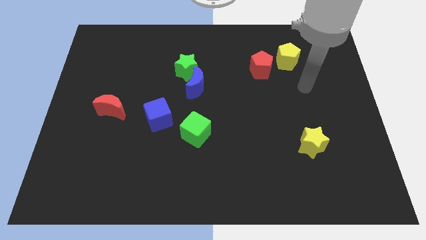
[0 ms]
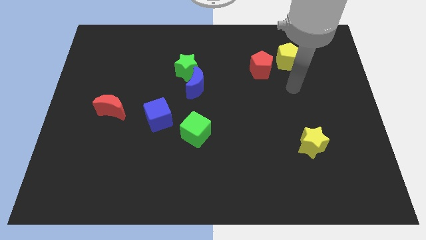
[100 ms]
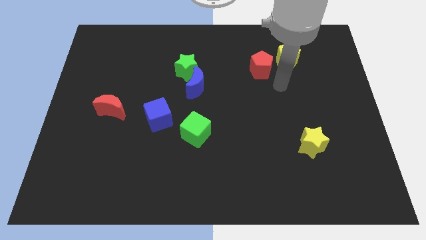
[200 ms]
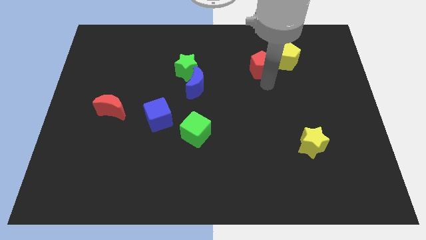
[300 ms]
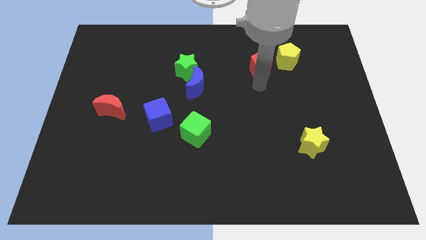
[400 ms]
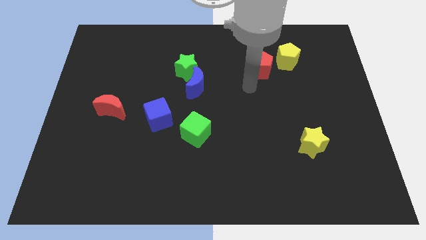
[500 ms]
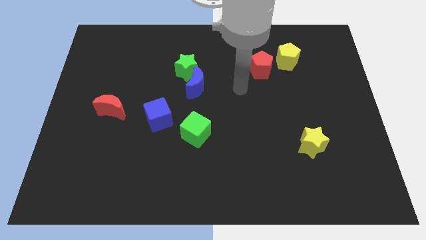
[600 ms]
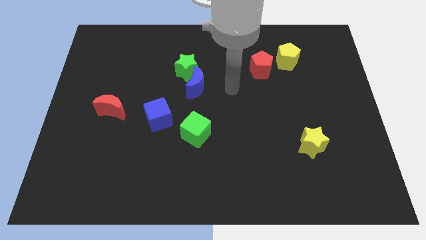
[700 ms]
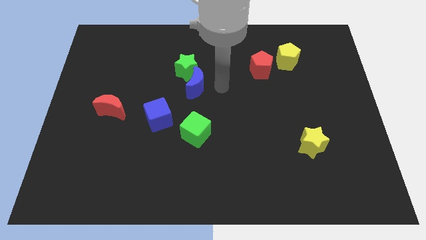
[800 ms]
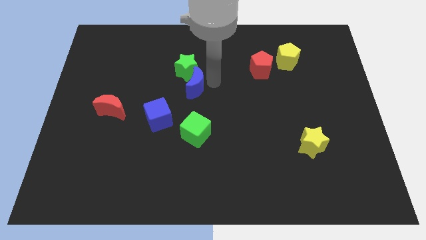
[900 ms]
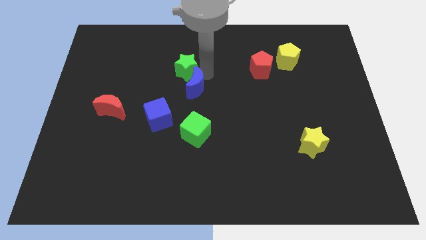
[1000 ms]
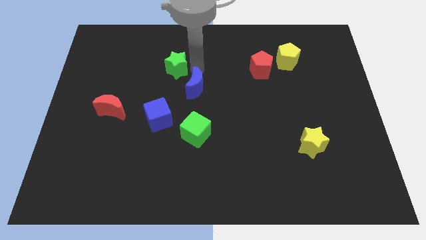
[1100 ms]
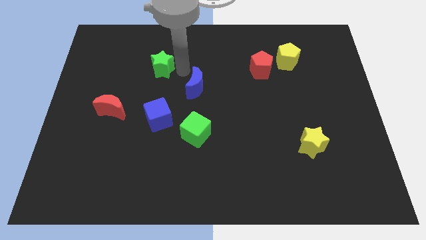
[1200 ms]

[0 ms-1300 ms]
pull the blue moon apart from the green star

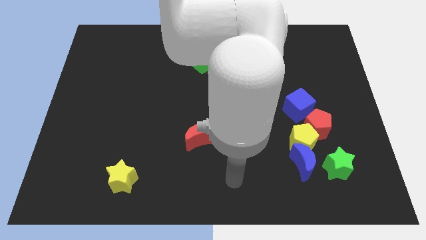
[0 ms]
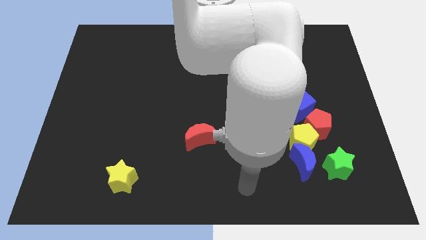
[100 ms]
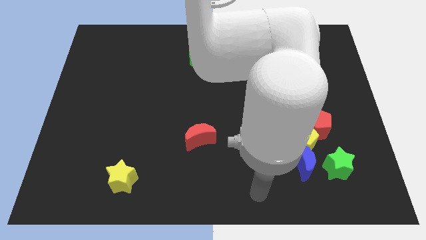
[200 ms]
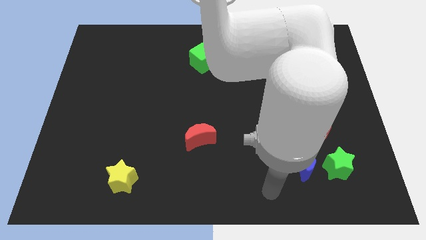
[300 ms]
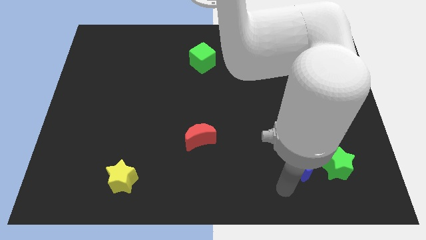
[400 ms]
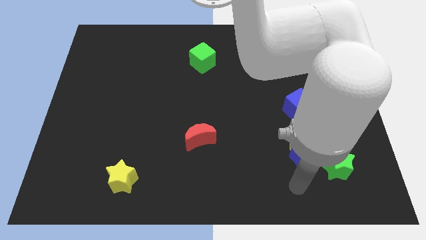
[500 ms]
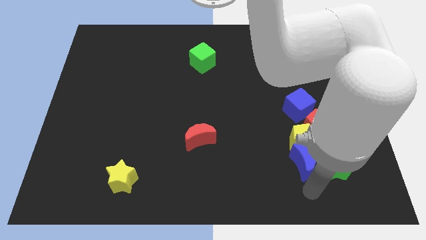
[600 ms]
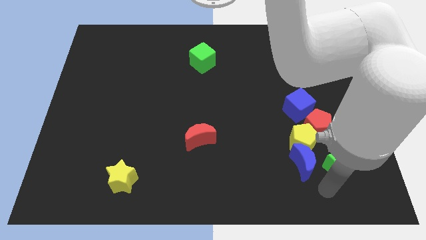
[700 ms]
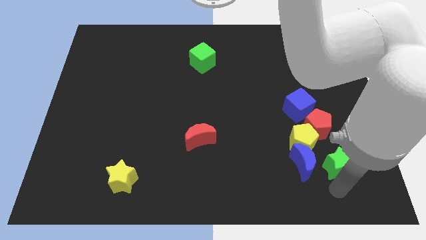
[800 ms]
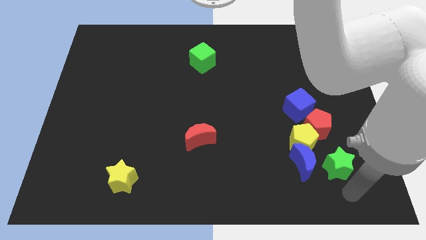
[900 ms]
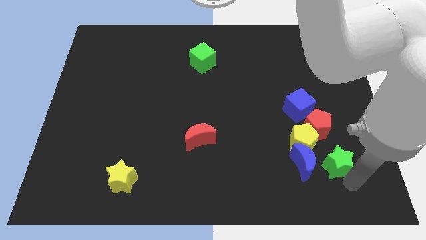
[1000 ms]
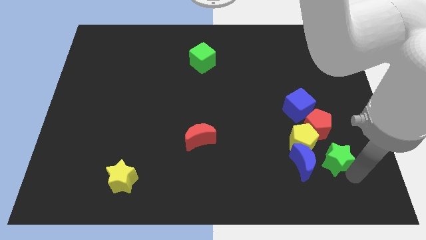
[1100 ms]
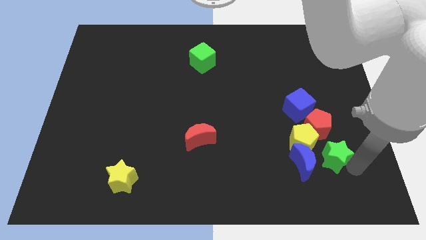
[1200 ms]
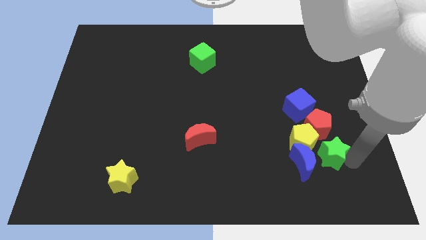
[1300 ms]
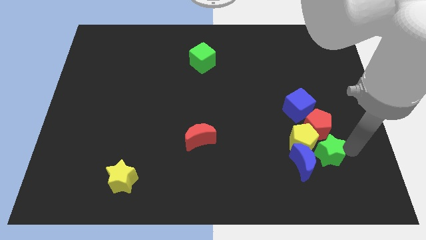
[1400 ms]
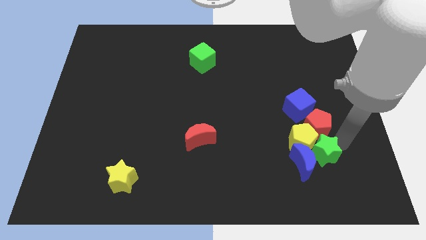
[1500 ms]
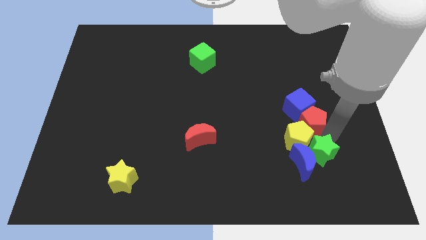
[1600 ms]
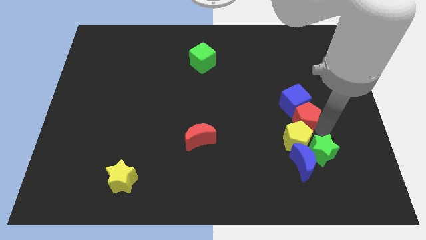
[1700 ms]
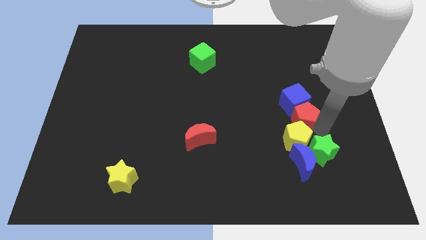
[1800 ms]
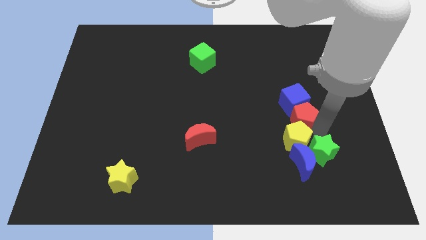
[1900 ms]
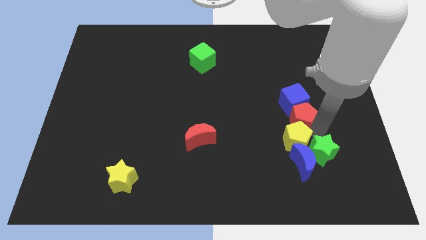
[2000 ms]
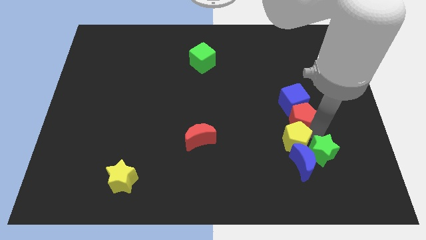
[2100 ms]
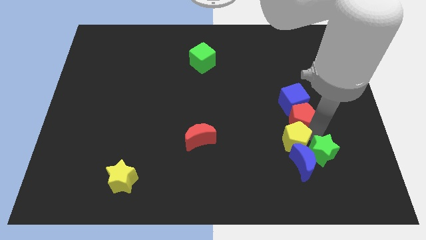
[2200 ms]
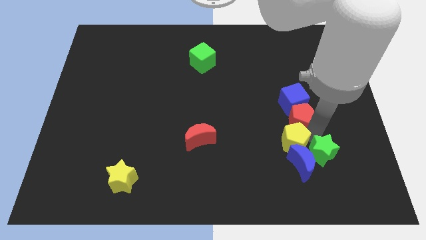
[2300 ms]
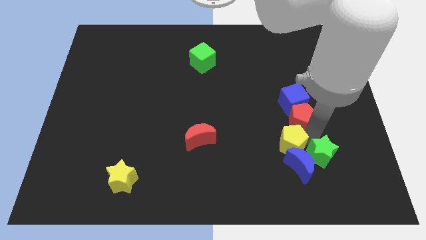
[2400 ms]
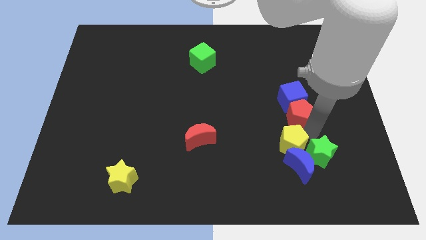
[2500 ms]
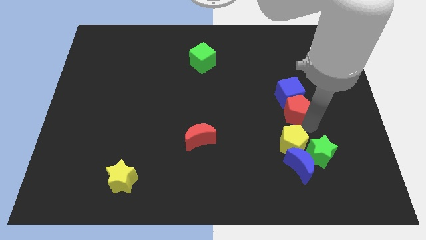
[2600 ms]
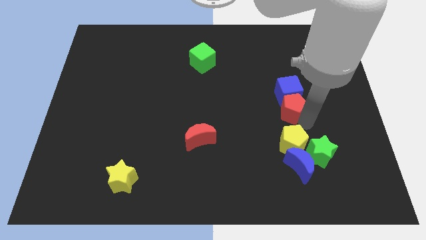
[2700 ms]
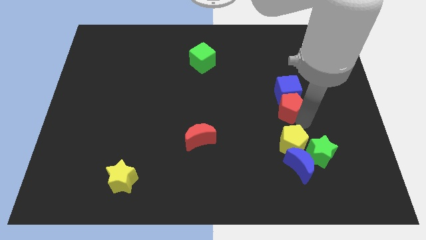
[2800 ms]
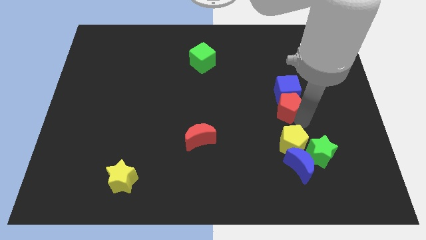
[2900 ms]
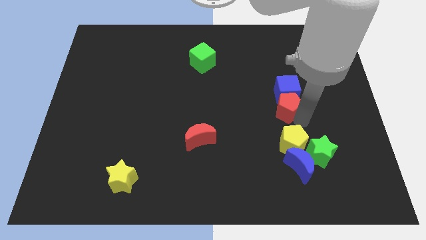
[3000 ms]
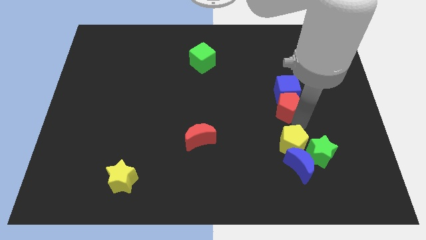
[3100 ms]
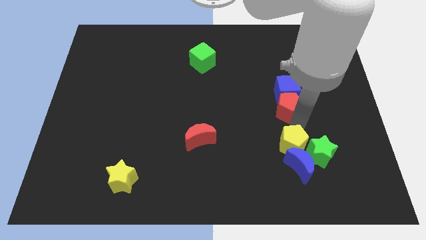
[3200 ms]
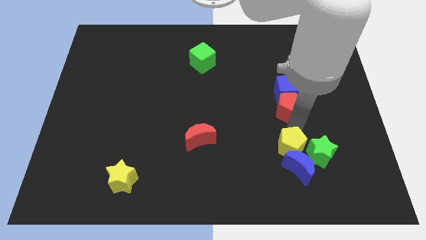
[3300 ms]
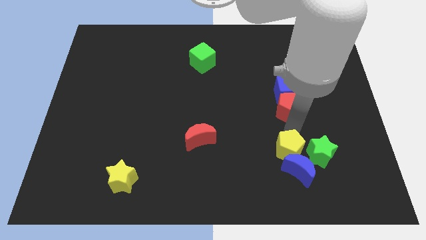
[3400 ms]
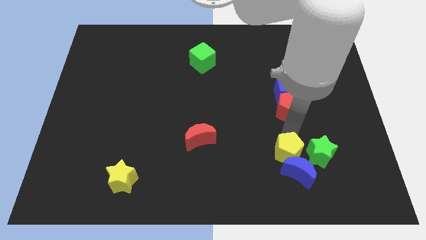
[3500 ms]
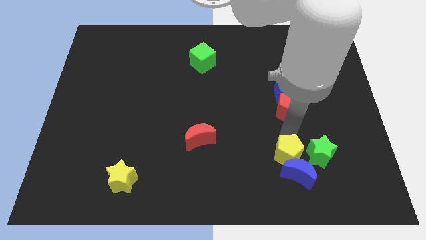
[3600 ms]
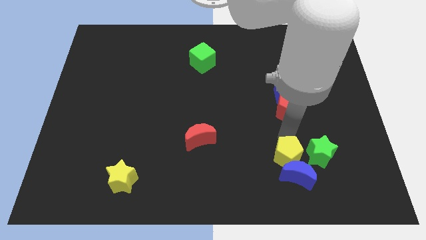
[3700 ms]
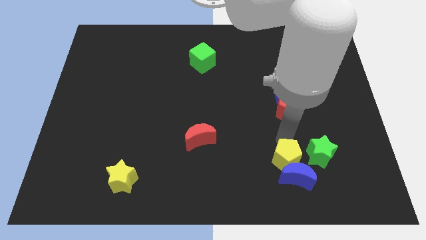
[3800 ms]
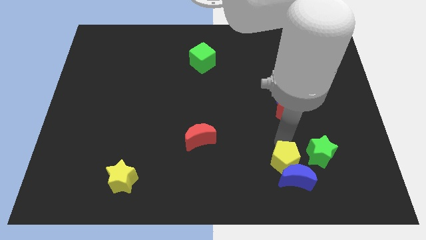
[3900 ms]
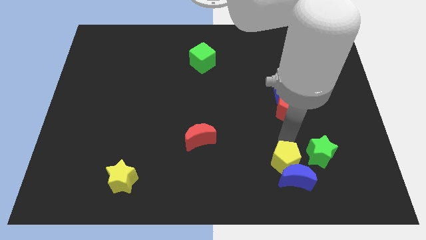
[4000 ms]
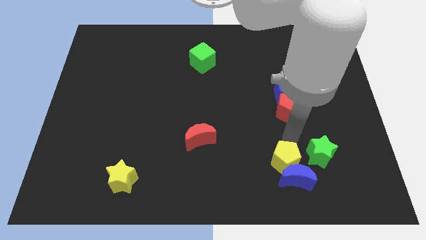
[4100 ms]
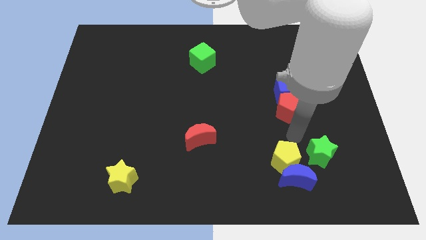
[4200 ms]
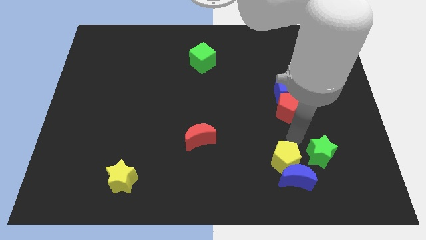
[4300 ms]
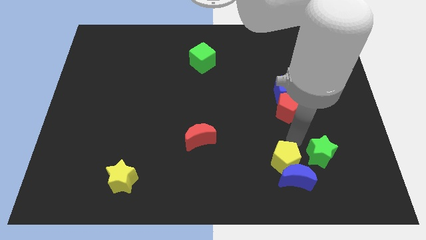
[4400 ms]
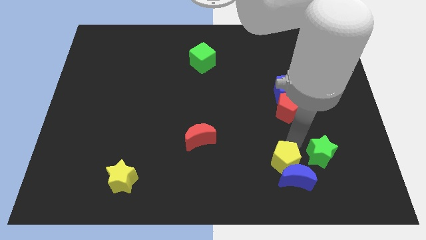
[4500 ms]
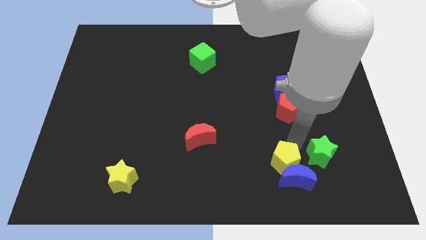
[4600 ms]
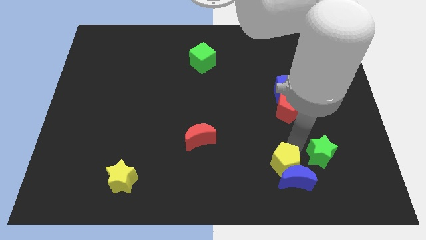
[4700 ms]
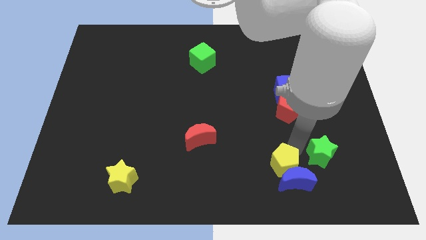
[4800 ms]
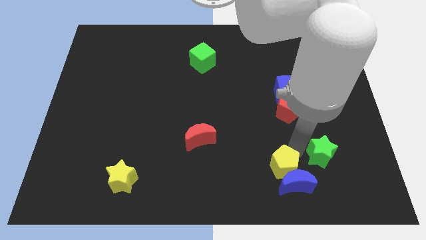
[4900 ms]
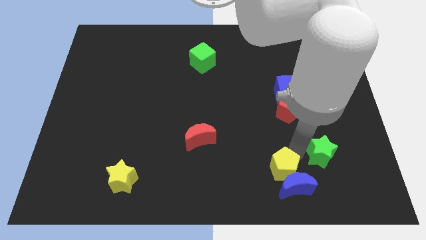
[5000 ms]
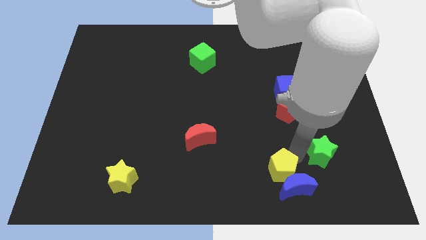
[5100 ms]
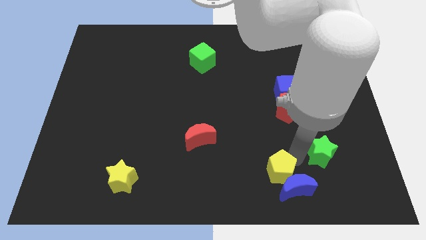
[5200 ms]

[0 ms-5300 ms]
pull the yellow pentagon apart from the group of blocks

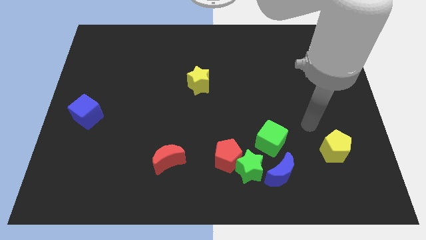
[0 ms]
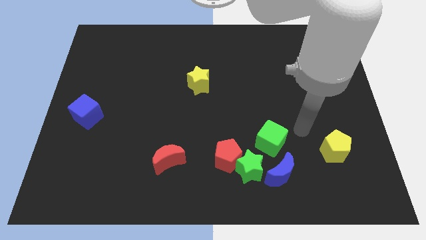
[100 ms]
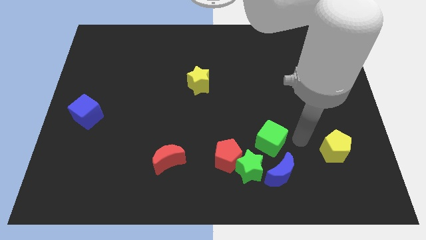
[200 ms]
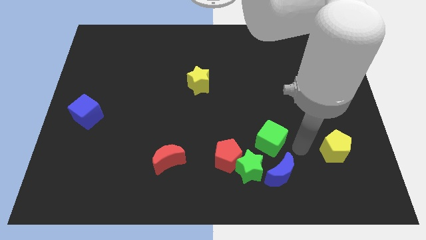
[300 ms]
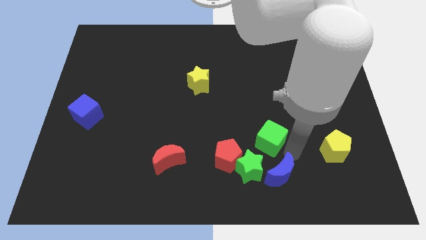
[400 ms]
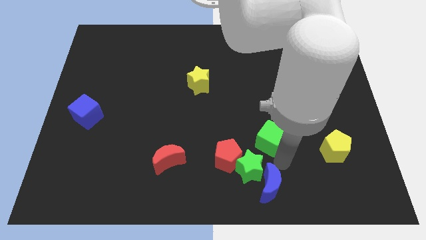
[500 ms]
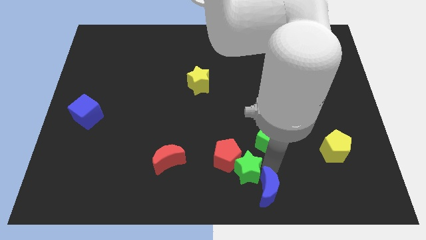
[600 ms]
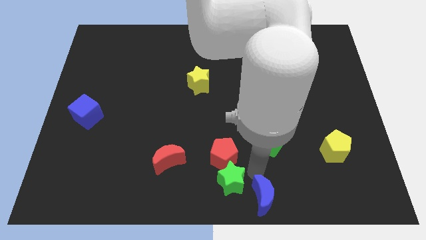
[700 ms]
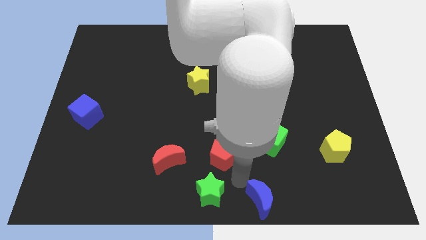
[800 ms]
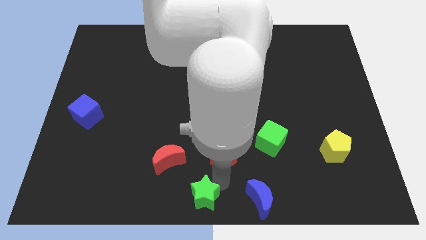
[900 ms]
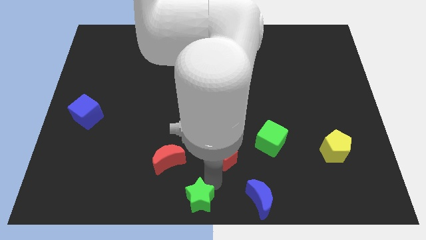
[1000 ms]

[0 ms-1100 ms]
pull the red pentagon apart from the green star

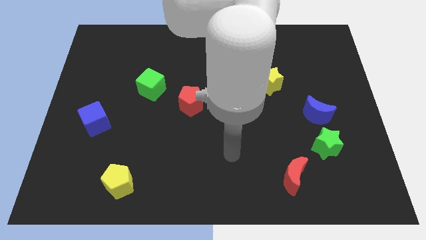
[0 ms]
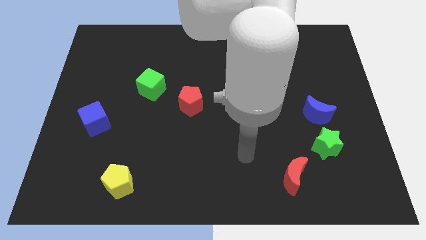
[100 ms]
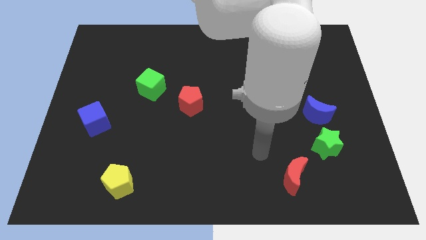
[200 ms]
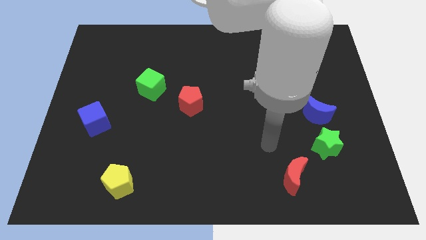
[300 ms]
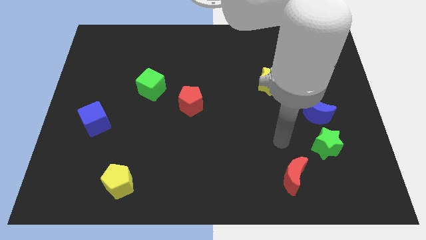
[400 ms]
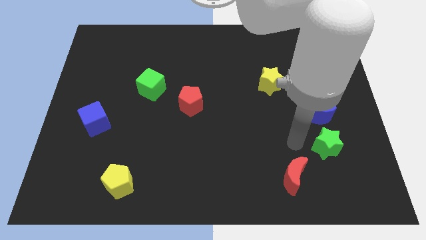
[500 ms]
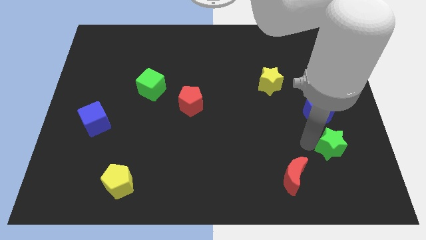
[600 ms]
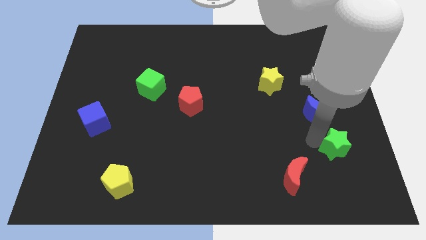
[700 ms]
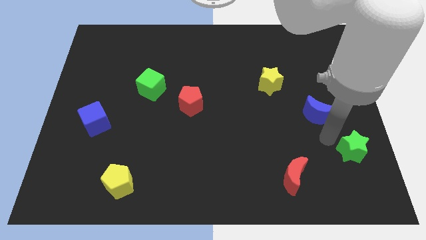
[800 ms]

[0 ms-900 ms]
move the blue moon away from the green star

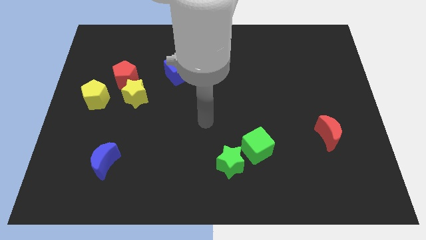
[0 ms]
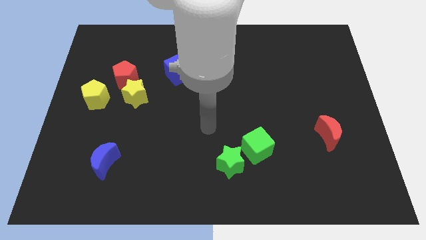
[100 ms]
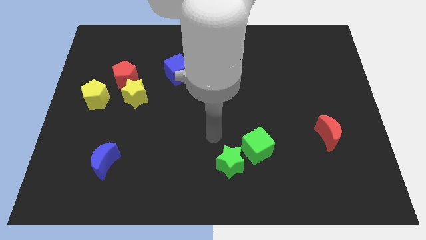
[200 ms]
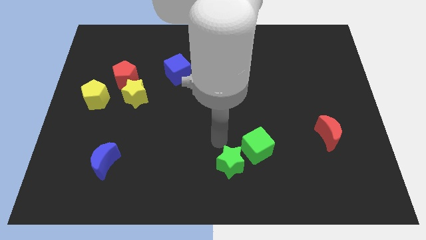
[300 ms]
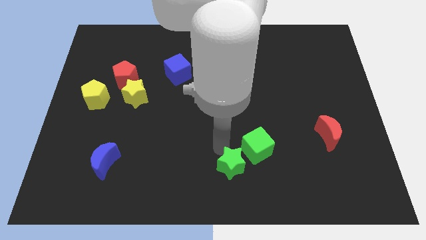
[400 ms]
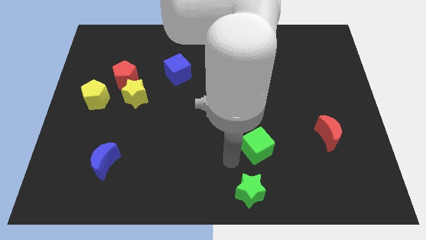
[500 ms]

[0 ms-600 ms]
pull the green cube apart from the green star

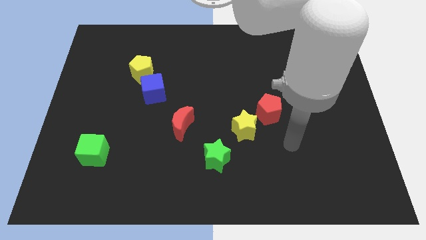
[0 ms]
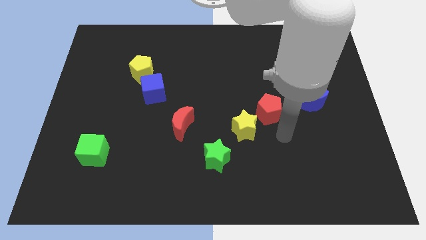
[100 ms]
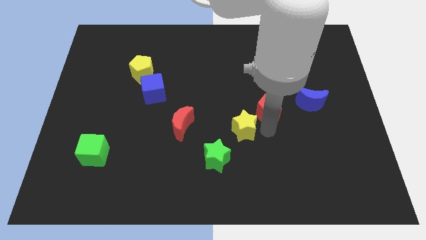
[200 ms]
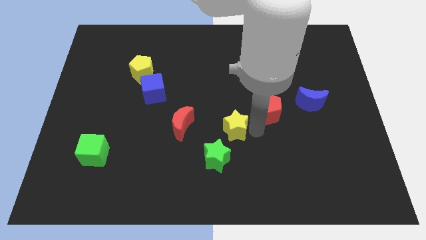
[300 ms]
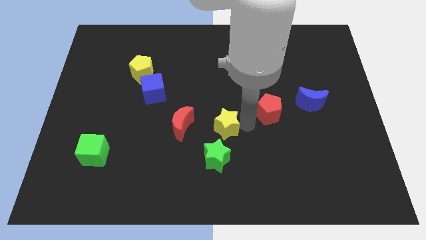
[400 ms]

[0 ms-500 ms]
move the red pentagon away from the yellow star
